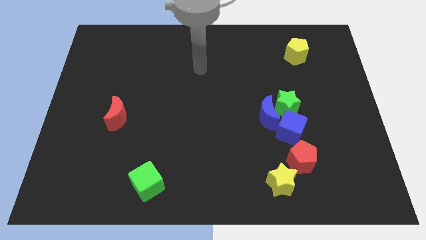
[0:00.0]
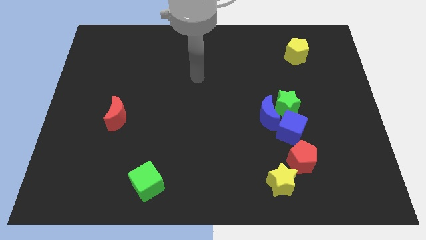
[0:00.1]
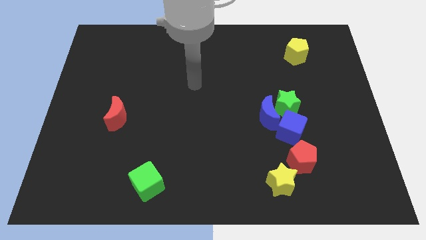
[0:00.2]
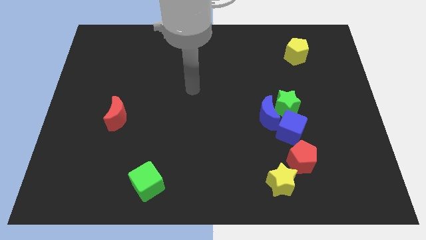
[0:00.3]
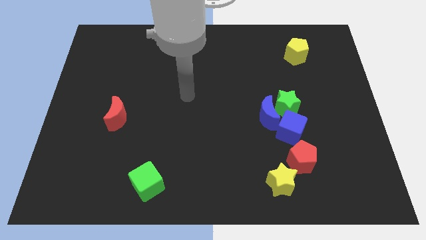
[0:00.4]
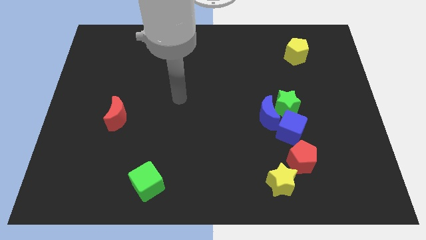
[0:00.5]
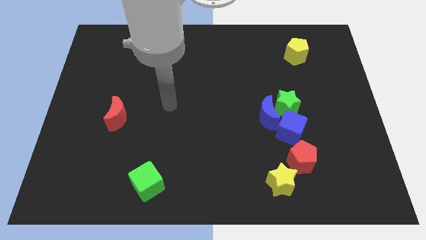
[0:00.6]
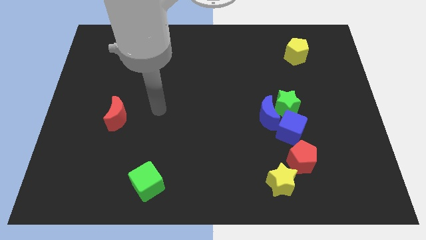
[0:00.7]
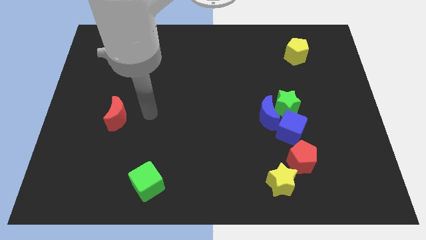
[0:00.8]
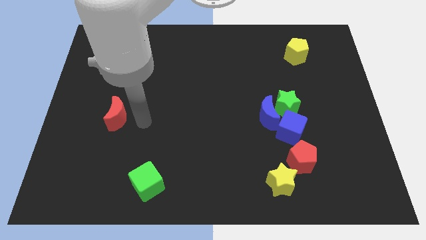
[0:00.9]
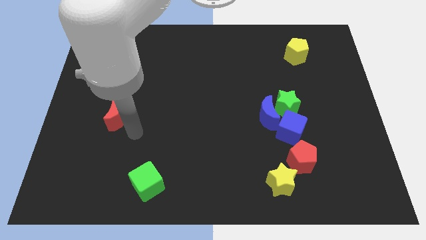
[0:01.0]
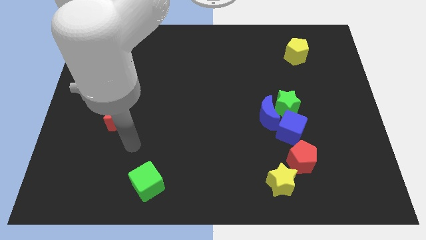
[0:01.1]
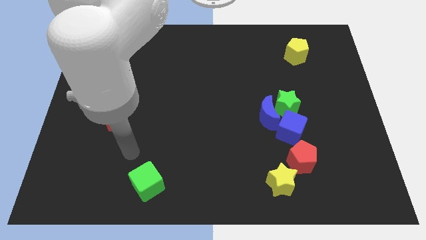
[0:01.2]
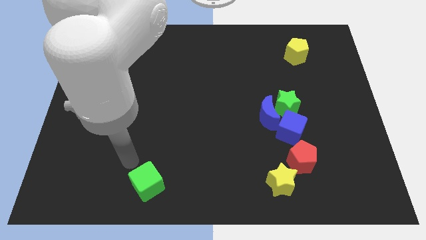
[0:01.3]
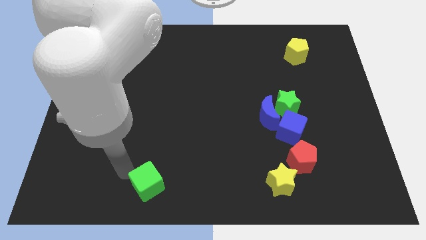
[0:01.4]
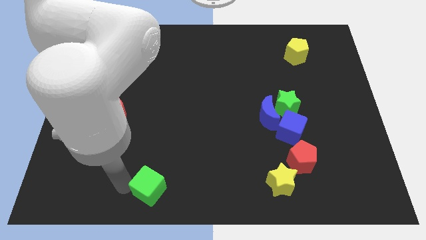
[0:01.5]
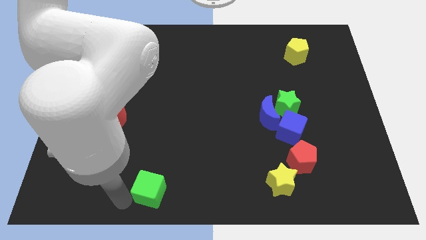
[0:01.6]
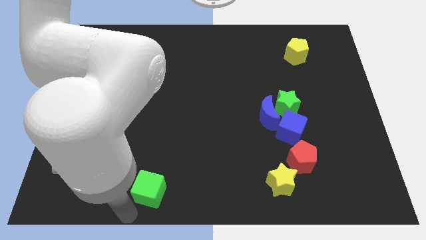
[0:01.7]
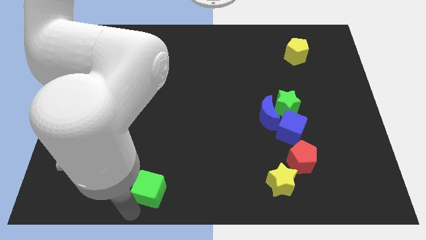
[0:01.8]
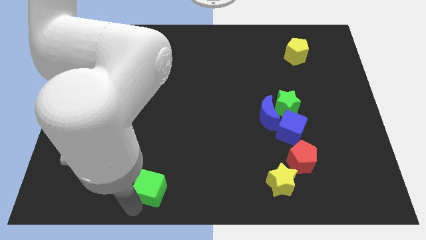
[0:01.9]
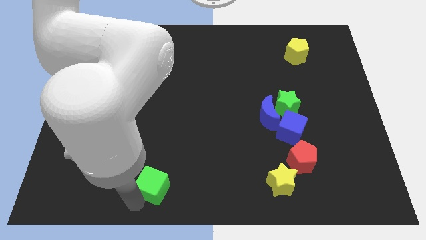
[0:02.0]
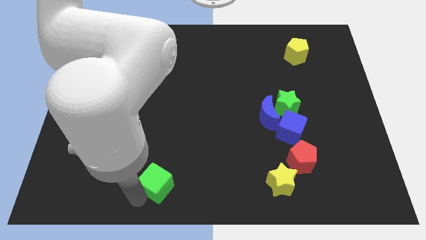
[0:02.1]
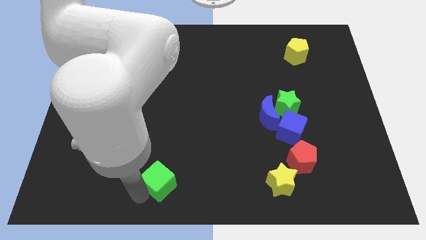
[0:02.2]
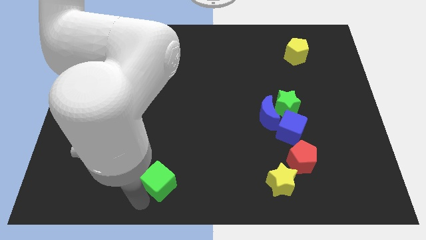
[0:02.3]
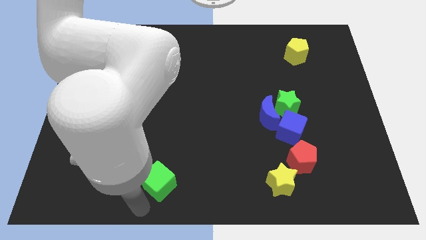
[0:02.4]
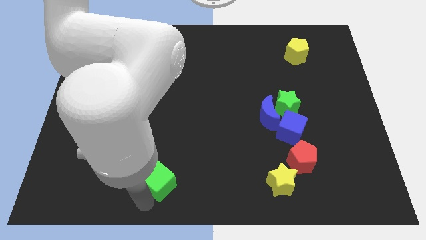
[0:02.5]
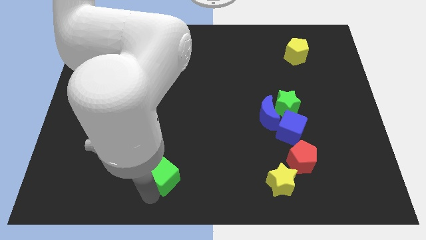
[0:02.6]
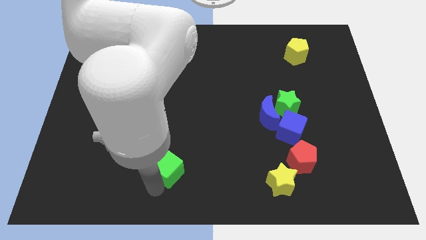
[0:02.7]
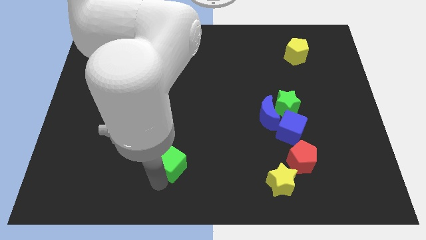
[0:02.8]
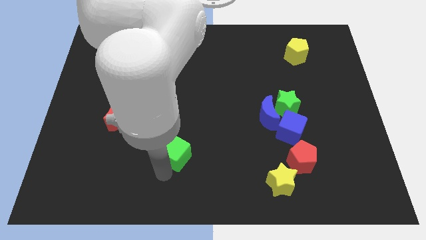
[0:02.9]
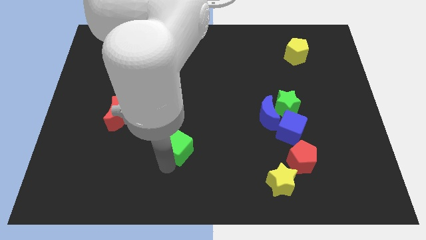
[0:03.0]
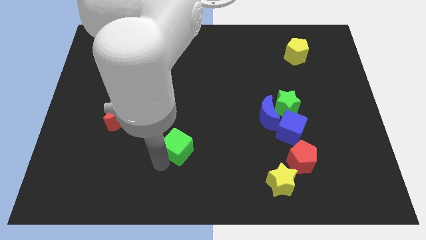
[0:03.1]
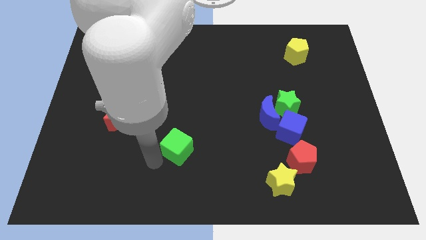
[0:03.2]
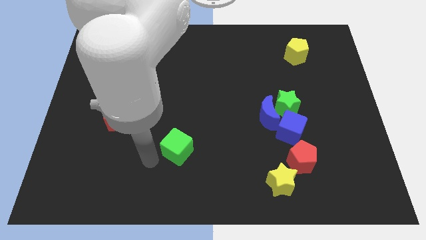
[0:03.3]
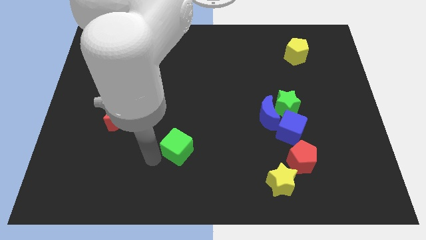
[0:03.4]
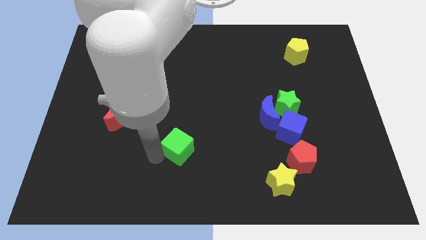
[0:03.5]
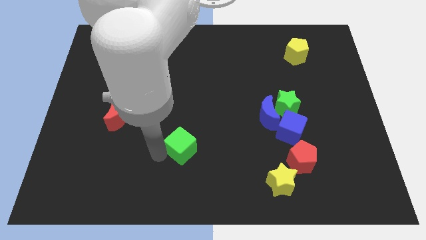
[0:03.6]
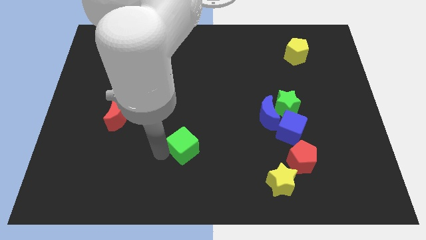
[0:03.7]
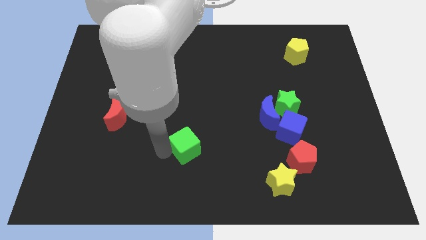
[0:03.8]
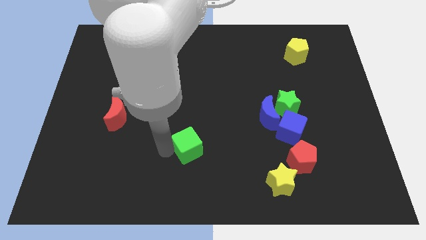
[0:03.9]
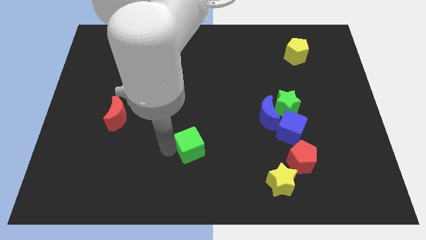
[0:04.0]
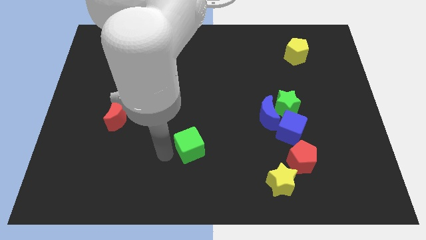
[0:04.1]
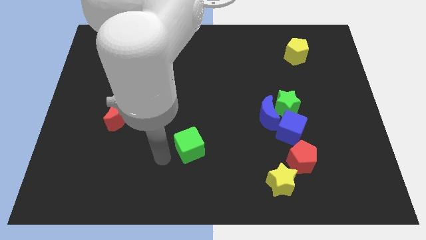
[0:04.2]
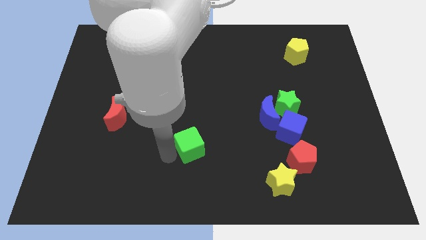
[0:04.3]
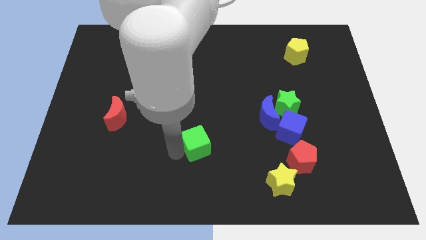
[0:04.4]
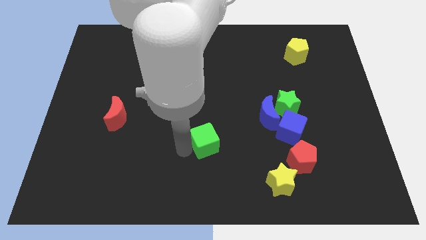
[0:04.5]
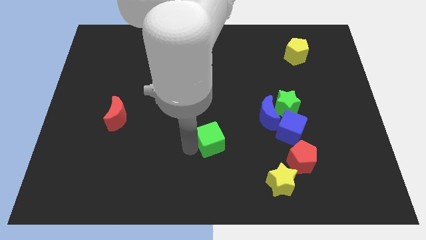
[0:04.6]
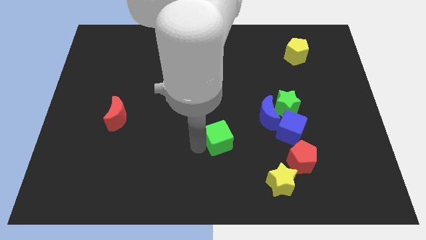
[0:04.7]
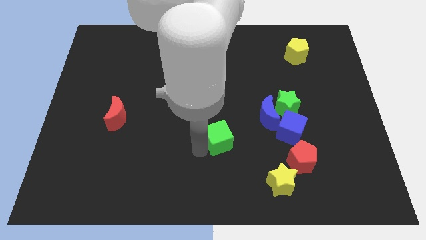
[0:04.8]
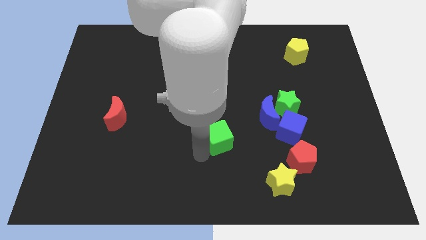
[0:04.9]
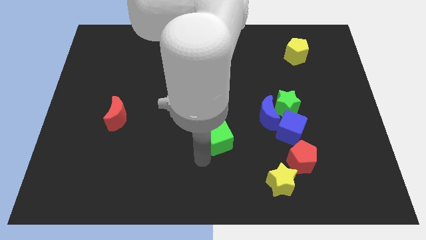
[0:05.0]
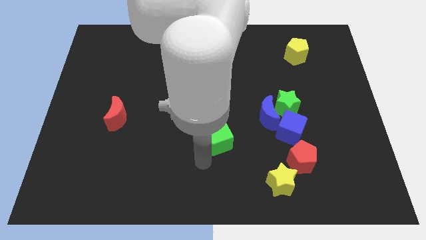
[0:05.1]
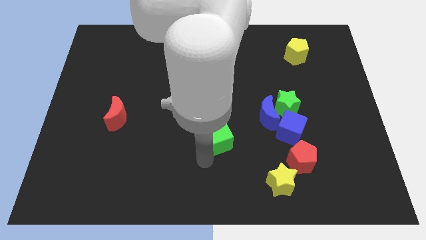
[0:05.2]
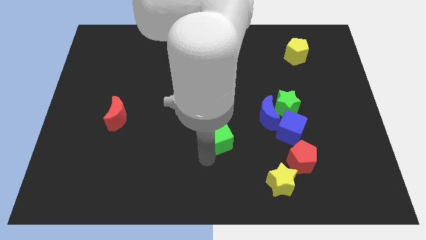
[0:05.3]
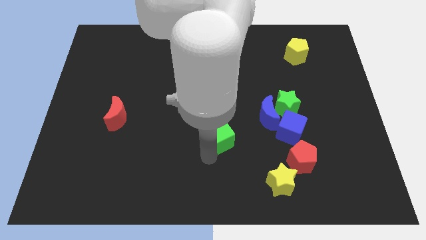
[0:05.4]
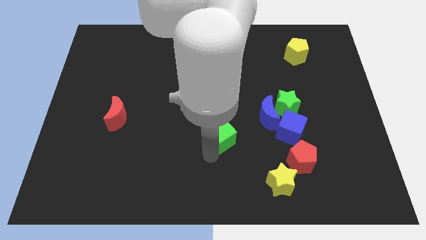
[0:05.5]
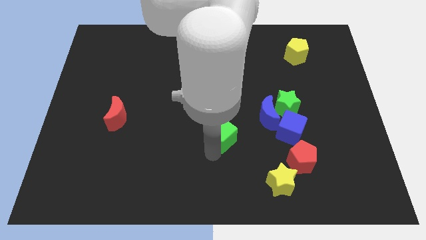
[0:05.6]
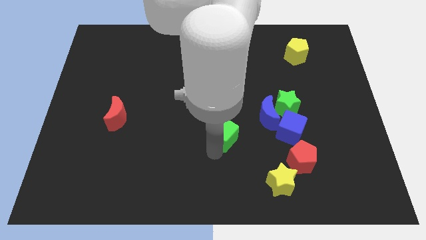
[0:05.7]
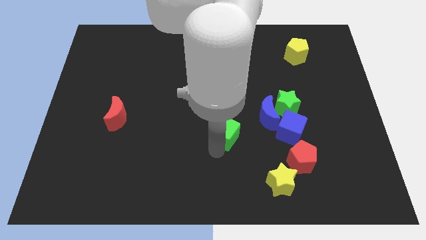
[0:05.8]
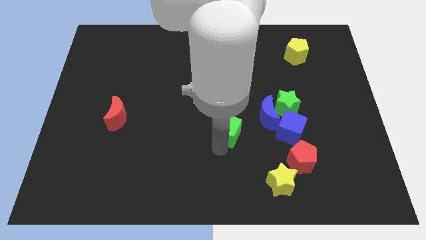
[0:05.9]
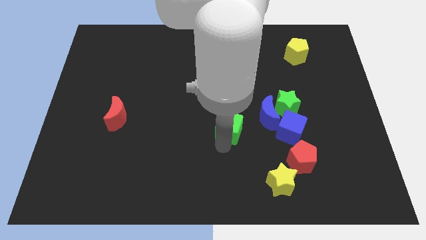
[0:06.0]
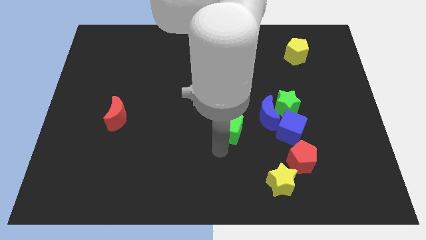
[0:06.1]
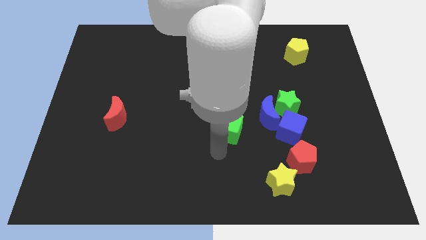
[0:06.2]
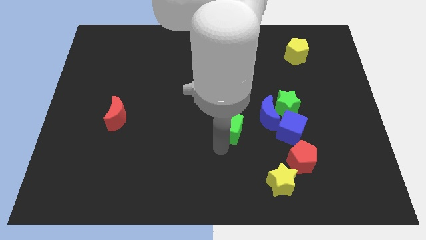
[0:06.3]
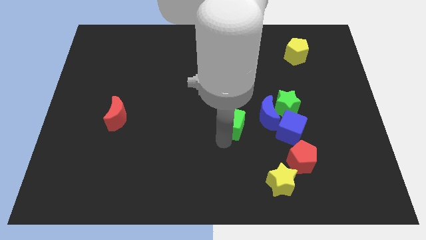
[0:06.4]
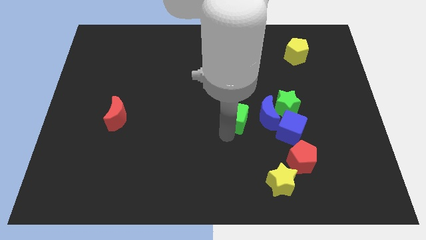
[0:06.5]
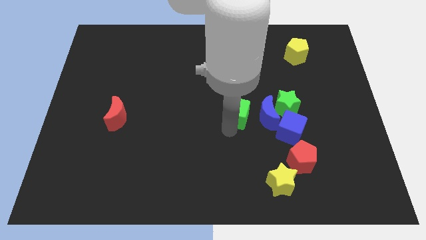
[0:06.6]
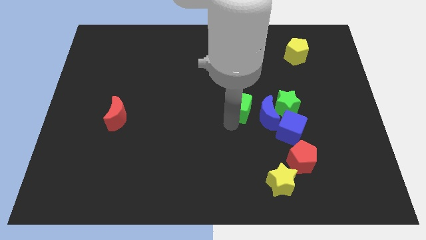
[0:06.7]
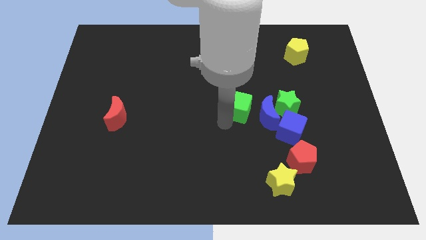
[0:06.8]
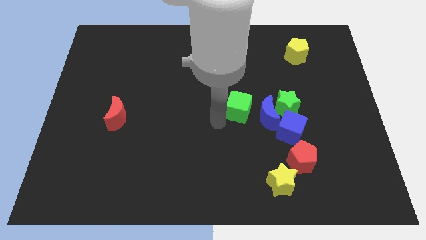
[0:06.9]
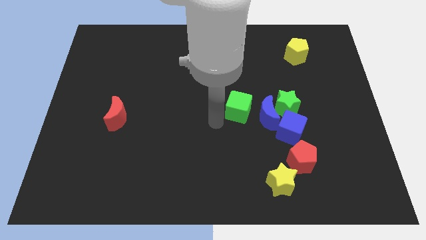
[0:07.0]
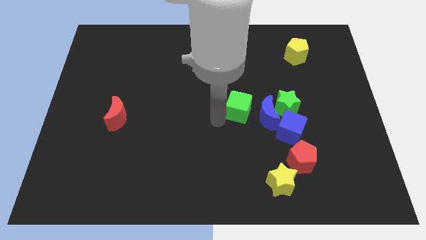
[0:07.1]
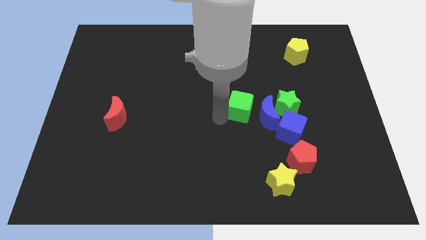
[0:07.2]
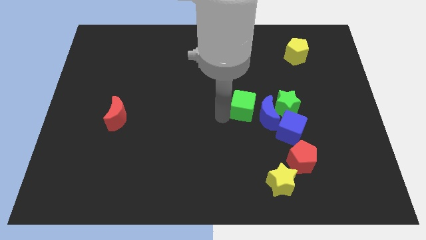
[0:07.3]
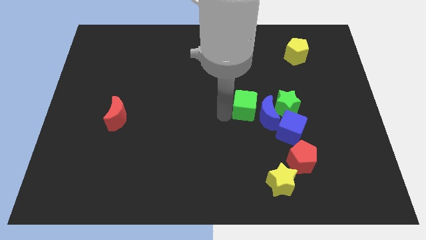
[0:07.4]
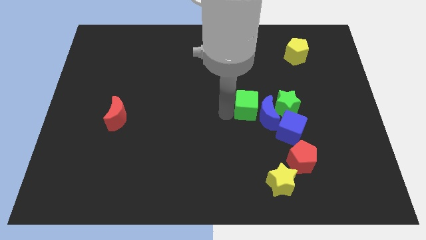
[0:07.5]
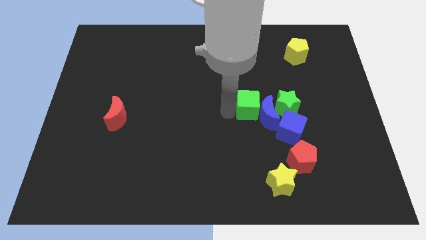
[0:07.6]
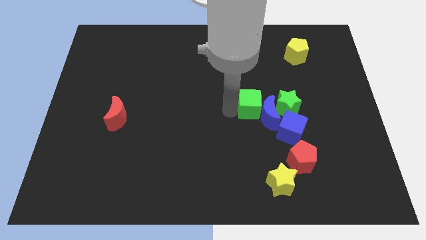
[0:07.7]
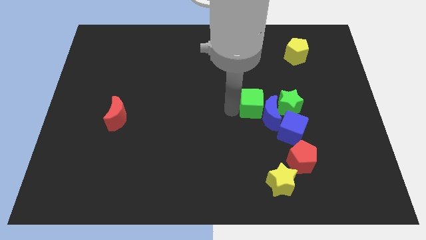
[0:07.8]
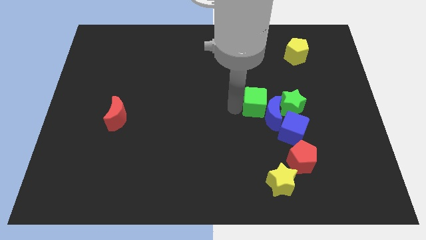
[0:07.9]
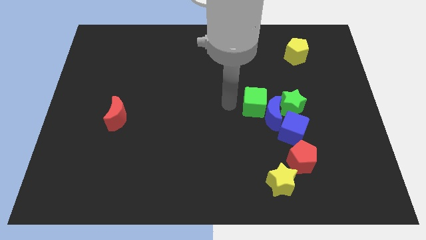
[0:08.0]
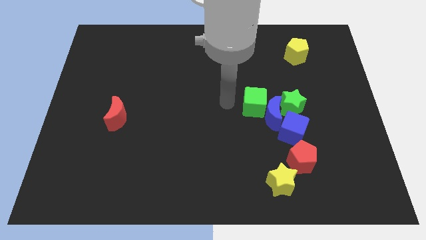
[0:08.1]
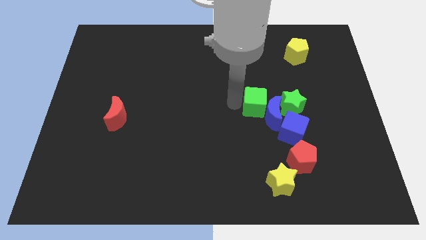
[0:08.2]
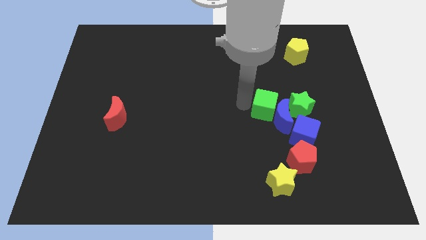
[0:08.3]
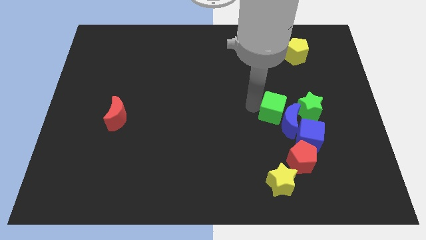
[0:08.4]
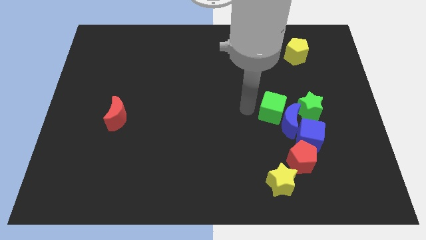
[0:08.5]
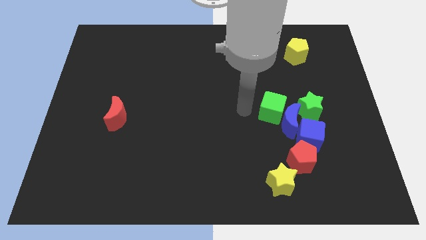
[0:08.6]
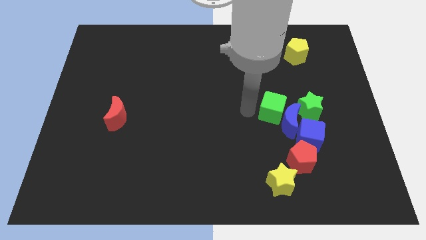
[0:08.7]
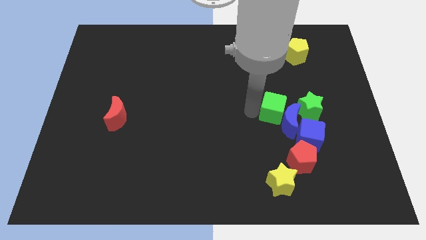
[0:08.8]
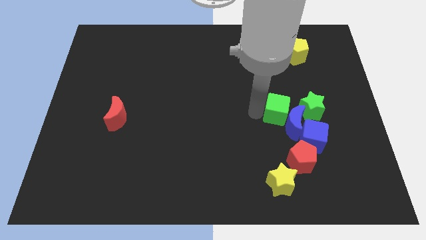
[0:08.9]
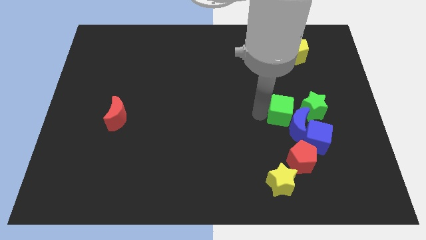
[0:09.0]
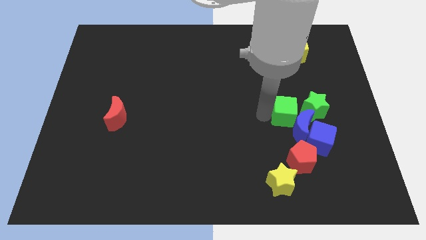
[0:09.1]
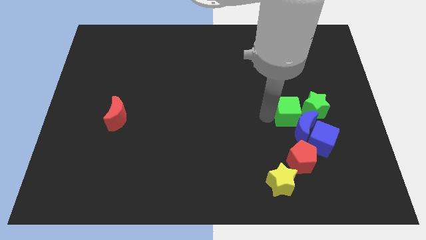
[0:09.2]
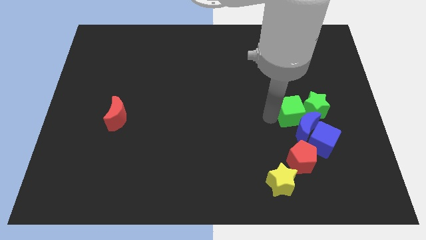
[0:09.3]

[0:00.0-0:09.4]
slide the green cube next to the green star
